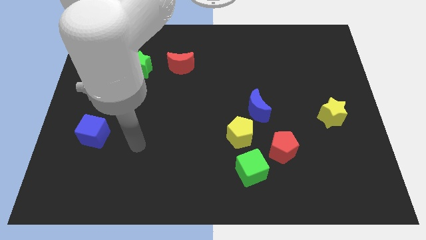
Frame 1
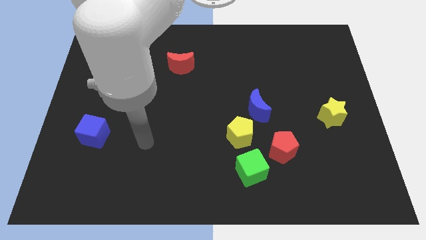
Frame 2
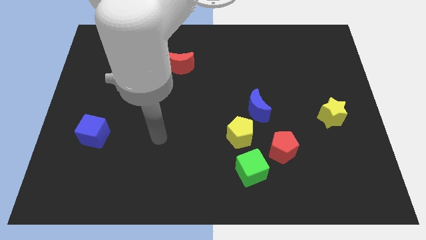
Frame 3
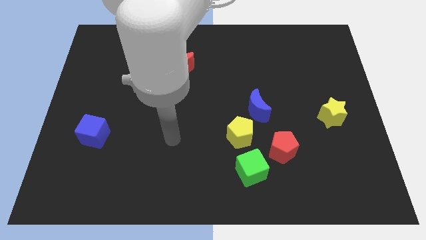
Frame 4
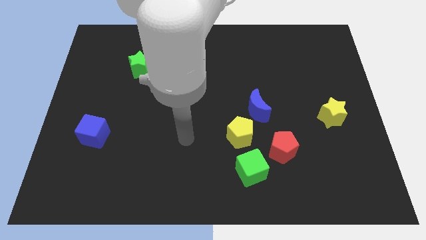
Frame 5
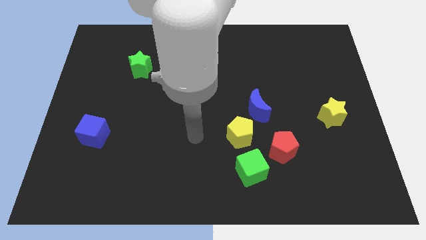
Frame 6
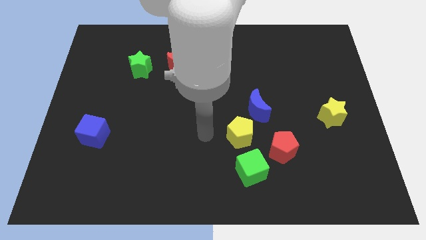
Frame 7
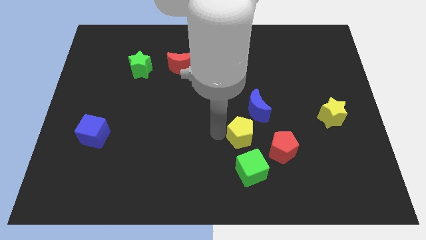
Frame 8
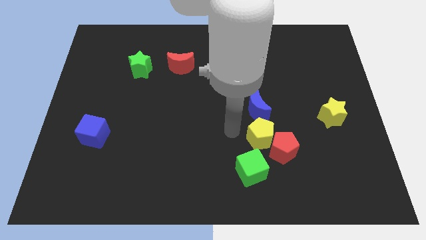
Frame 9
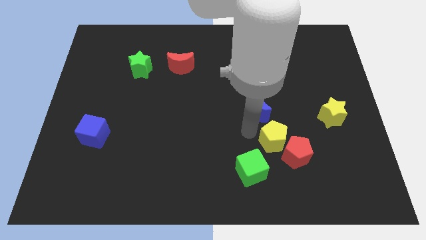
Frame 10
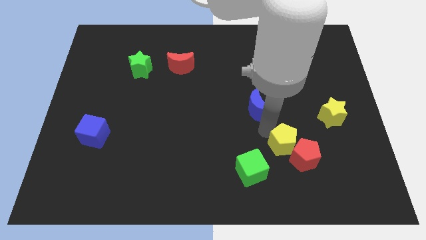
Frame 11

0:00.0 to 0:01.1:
move the blue moon away from the yellow pentagon

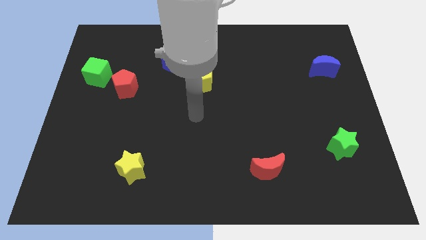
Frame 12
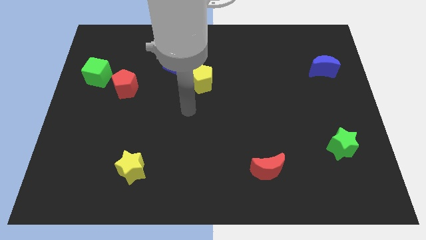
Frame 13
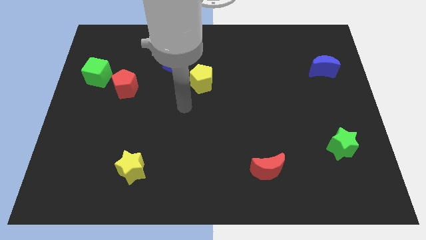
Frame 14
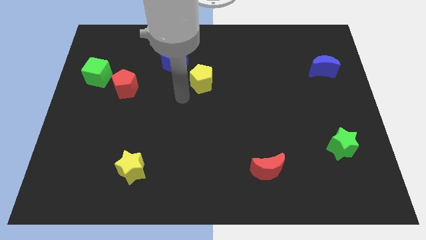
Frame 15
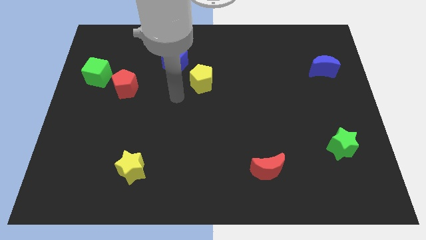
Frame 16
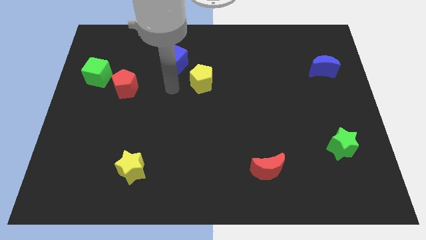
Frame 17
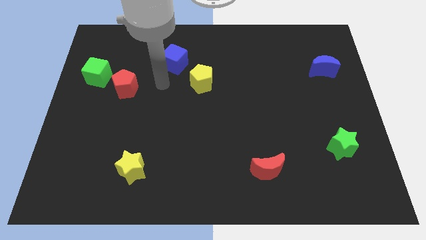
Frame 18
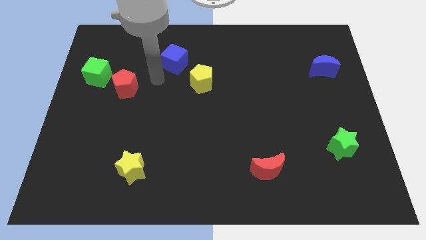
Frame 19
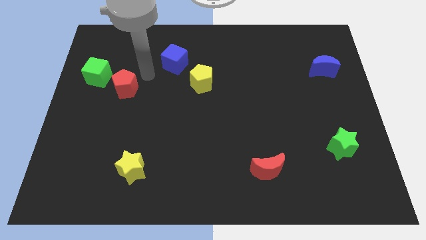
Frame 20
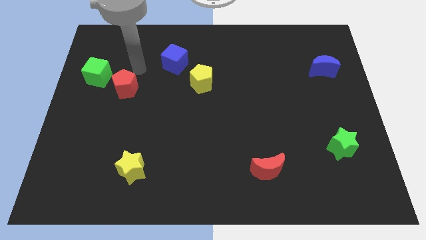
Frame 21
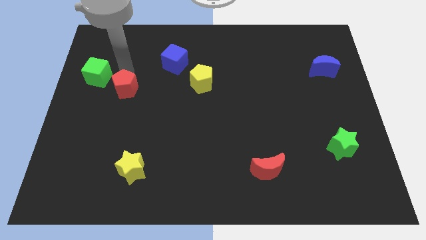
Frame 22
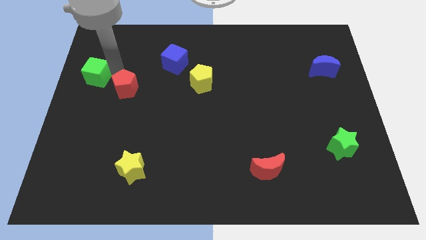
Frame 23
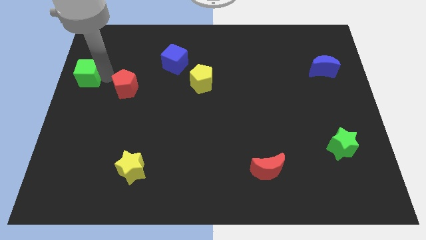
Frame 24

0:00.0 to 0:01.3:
separate the red pentagon from the green cube

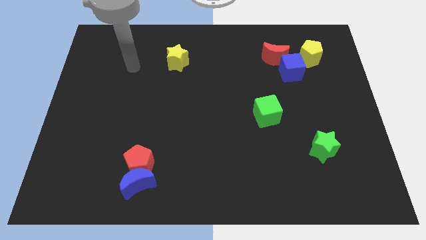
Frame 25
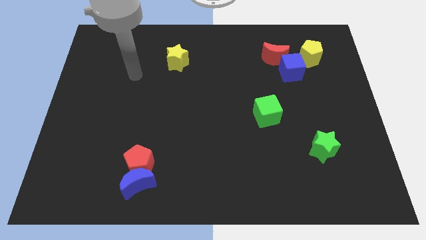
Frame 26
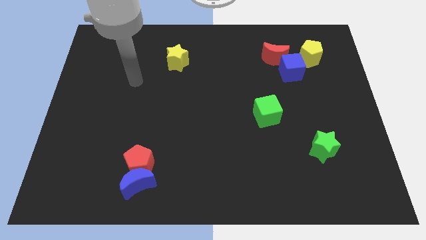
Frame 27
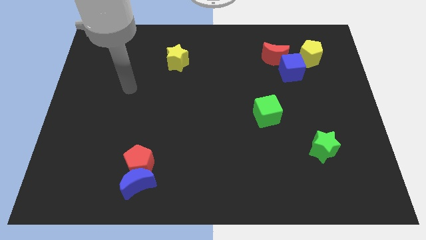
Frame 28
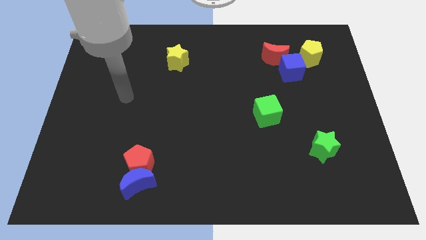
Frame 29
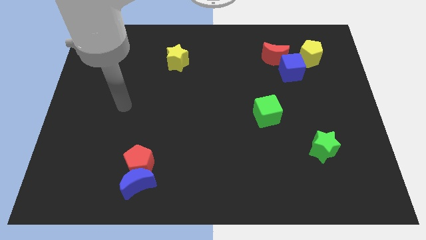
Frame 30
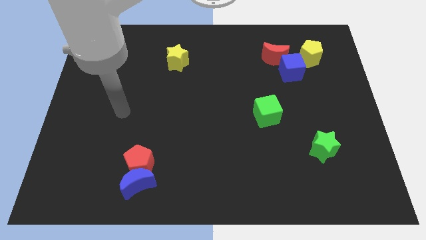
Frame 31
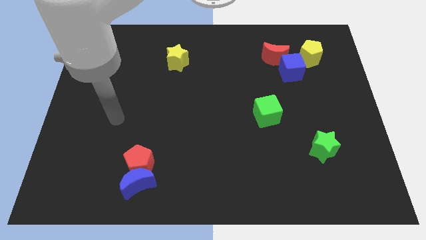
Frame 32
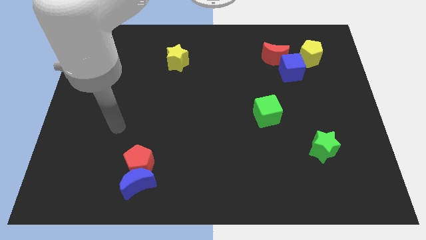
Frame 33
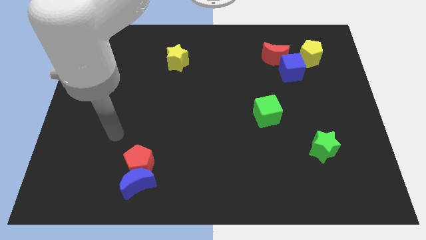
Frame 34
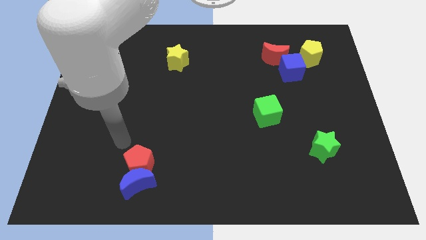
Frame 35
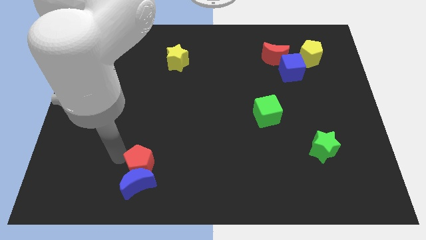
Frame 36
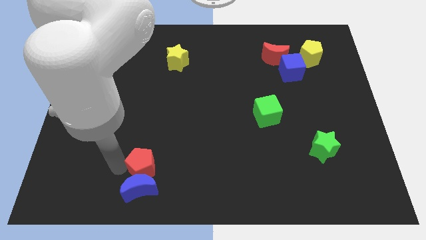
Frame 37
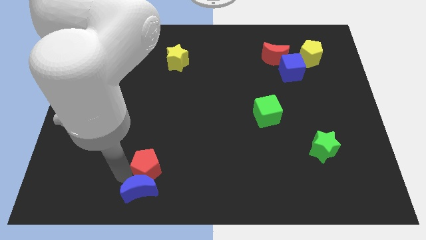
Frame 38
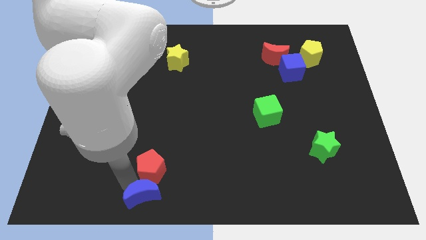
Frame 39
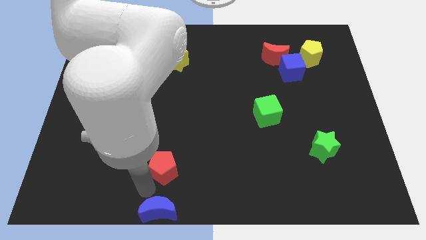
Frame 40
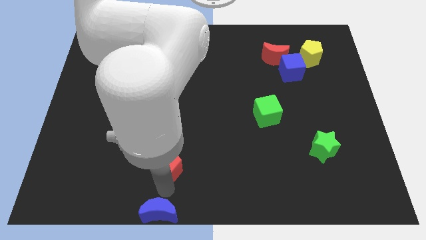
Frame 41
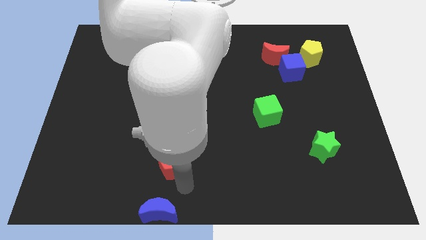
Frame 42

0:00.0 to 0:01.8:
pull the red pentagon apart from the blue moon

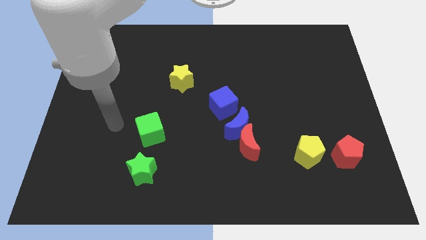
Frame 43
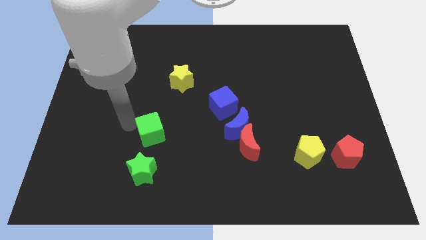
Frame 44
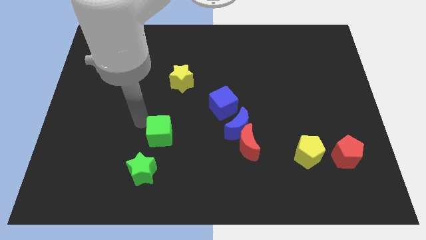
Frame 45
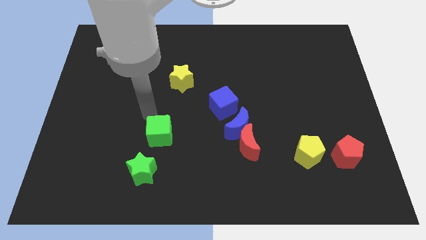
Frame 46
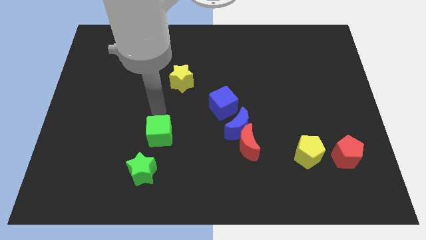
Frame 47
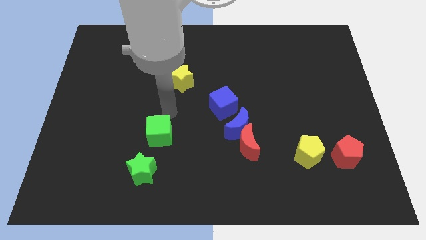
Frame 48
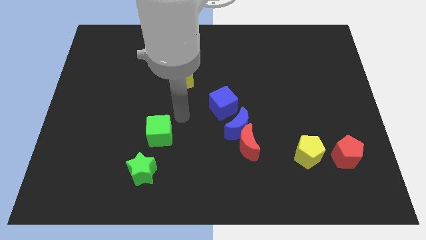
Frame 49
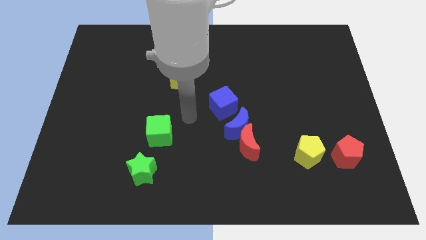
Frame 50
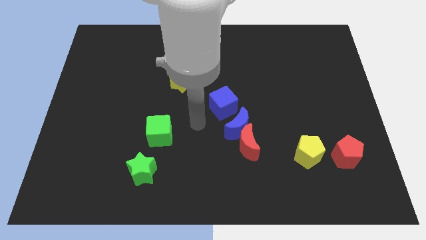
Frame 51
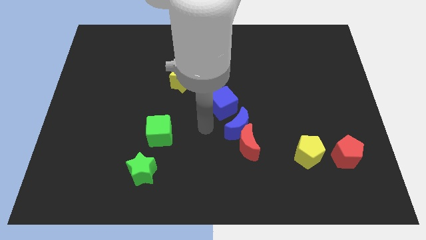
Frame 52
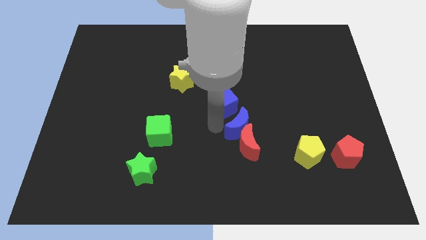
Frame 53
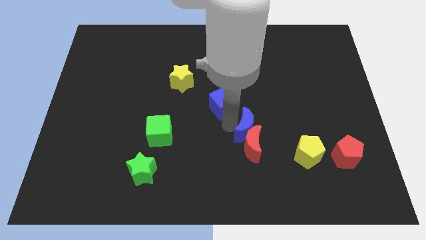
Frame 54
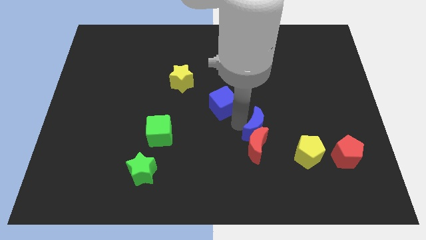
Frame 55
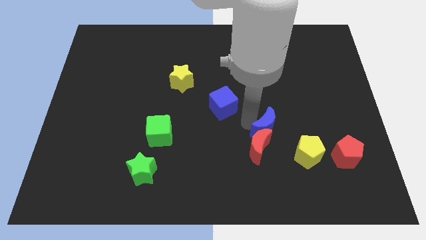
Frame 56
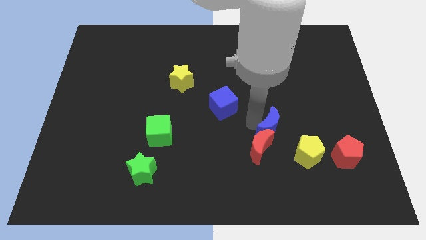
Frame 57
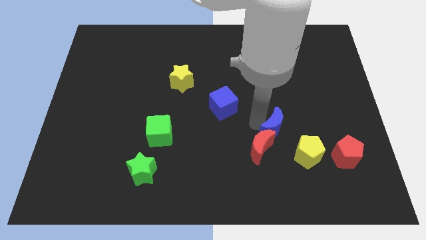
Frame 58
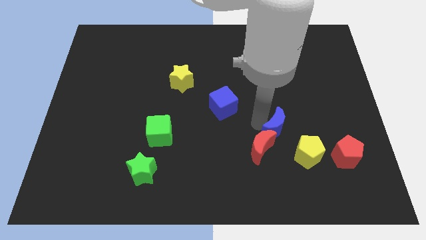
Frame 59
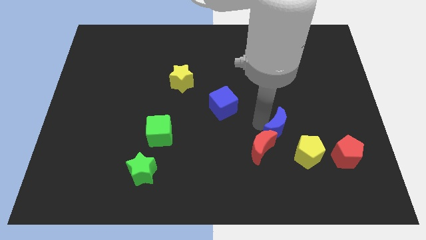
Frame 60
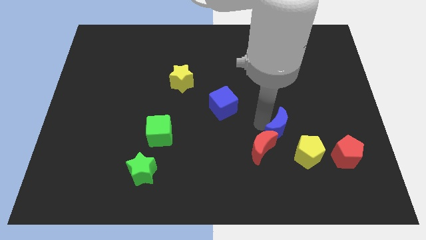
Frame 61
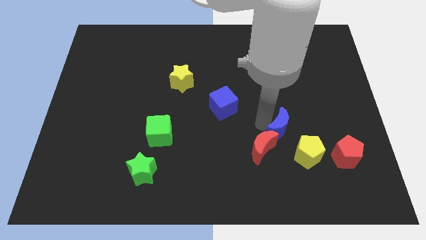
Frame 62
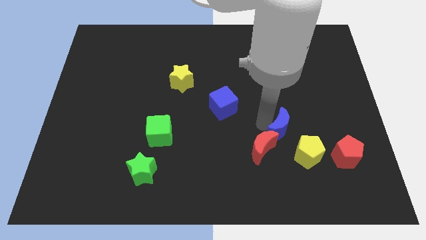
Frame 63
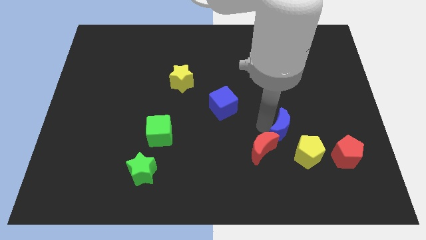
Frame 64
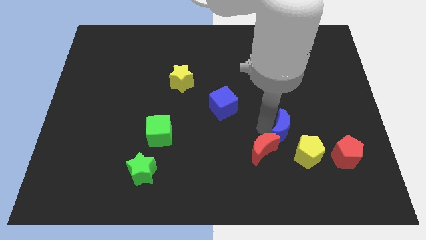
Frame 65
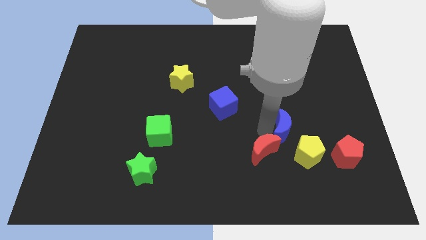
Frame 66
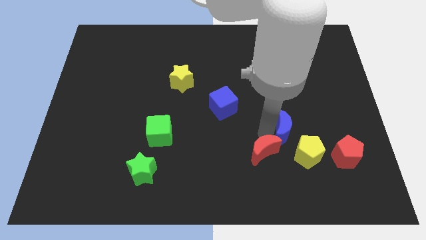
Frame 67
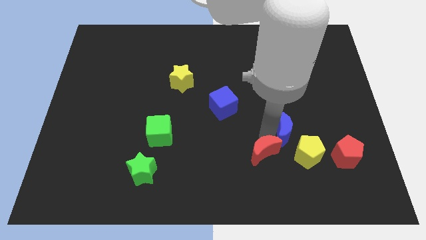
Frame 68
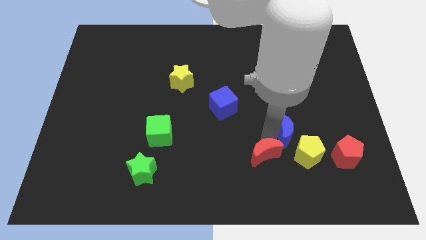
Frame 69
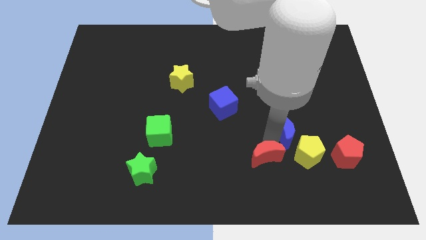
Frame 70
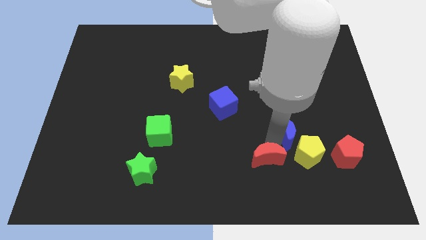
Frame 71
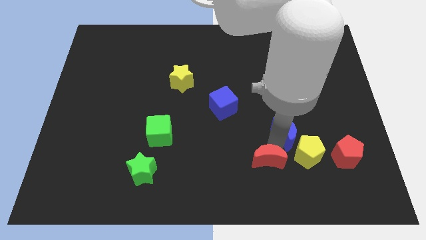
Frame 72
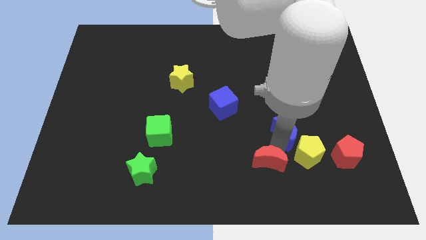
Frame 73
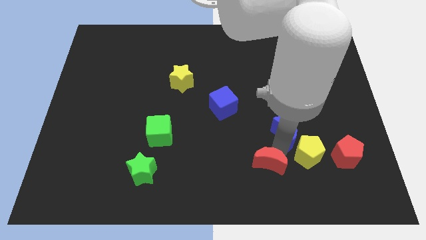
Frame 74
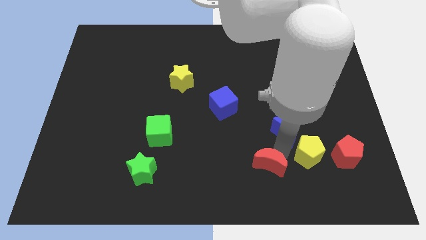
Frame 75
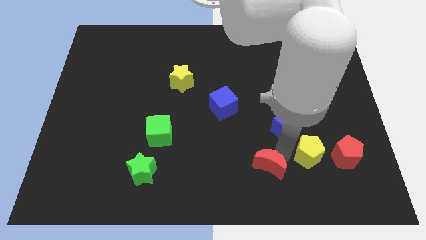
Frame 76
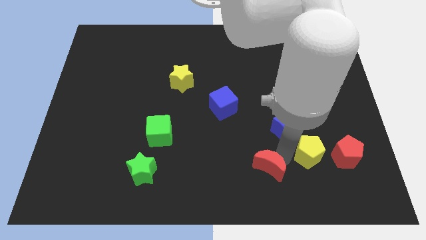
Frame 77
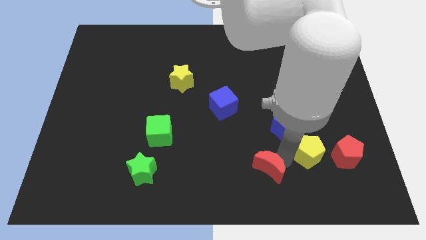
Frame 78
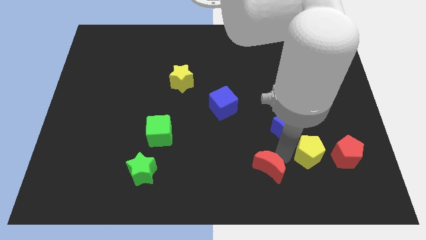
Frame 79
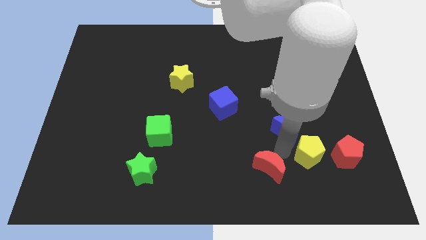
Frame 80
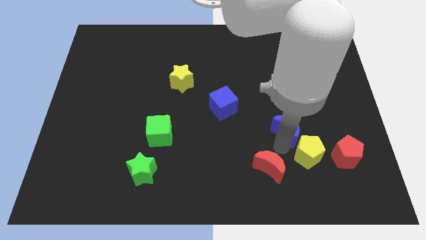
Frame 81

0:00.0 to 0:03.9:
separate the red moon from the blue moon

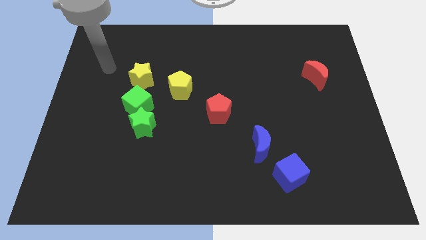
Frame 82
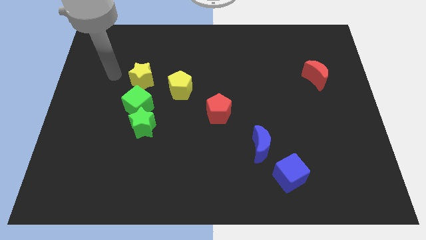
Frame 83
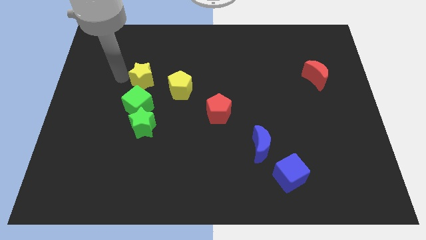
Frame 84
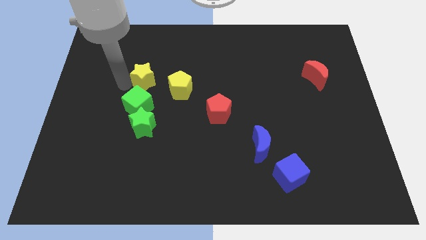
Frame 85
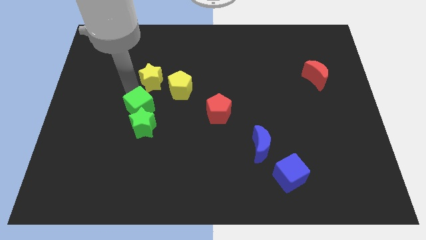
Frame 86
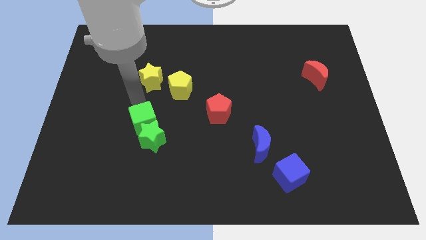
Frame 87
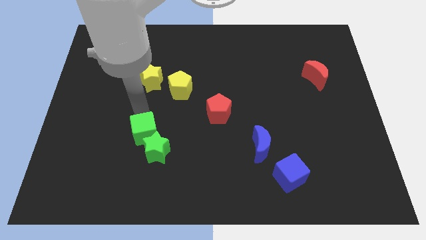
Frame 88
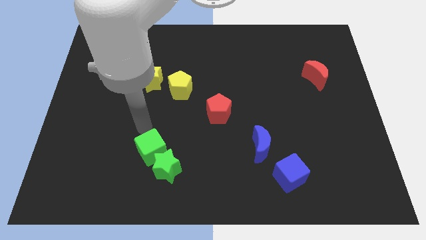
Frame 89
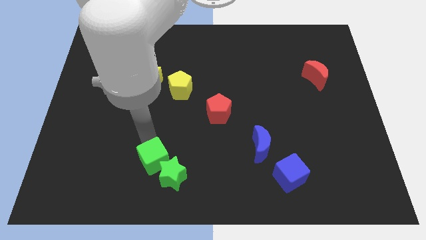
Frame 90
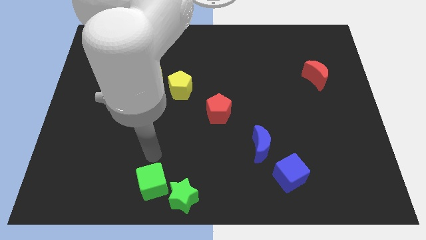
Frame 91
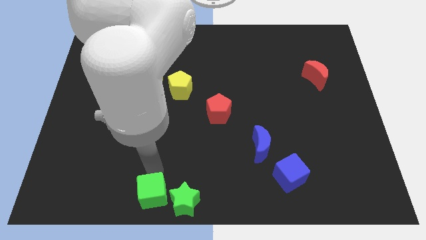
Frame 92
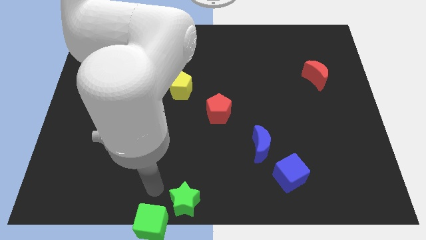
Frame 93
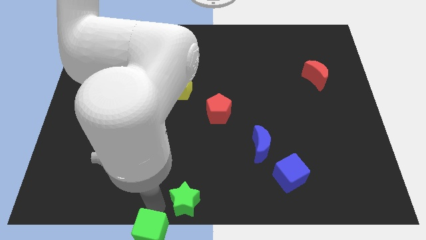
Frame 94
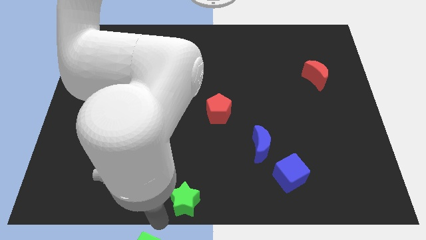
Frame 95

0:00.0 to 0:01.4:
move the green star away from the green cube
